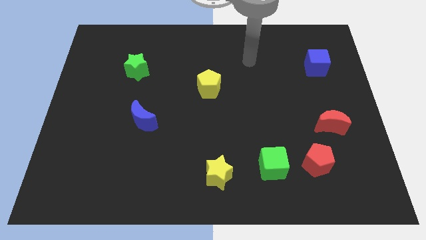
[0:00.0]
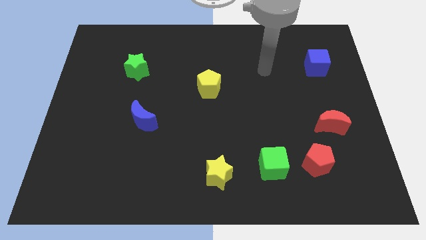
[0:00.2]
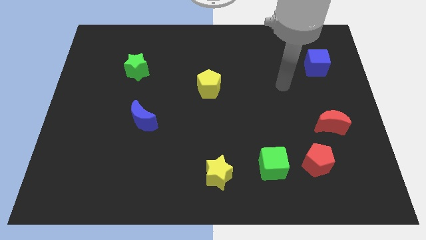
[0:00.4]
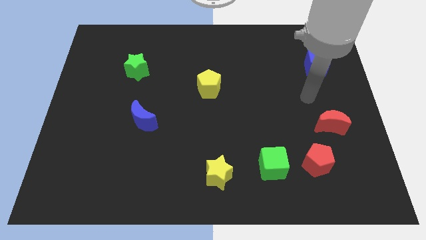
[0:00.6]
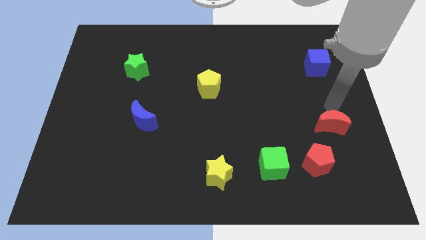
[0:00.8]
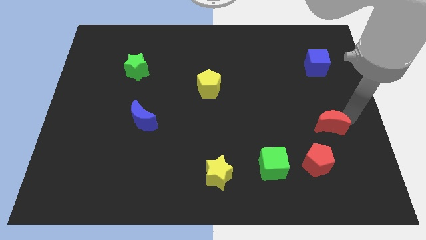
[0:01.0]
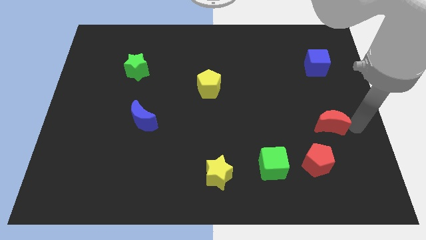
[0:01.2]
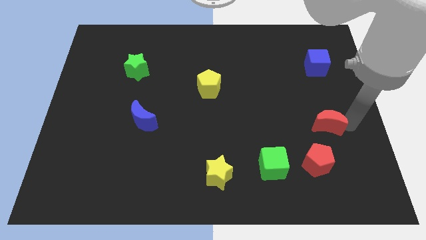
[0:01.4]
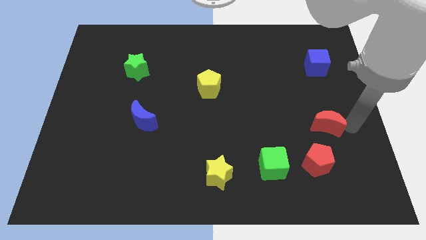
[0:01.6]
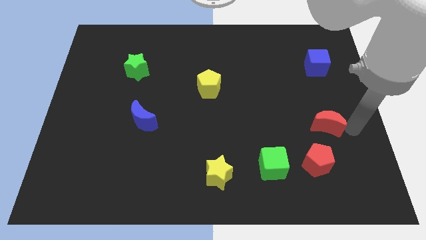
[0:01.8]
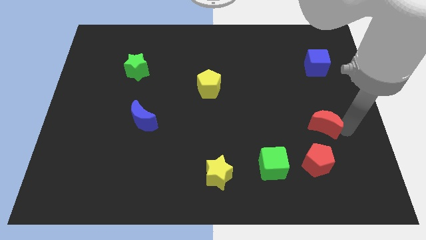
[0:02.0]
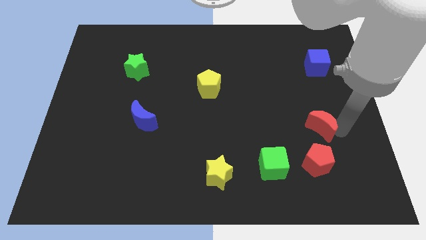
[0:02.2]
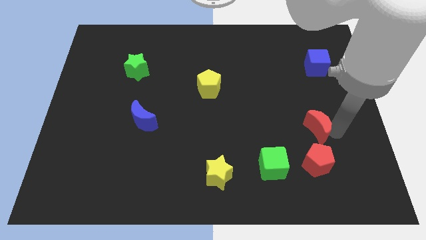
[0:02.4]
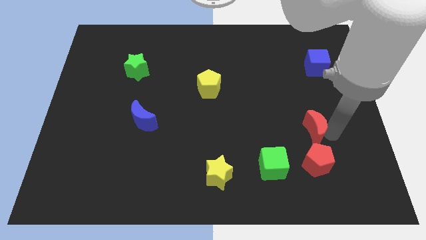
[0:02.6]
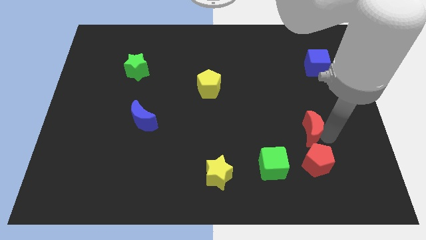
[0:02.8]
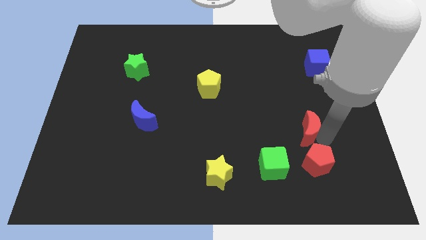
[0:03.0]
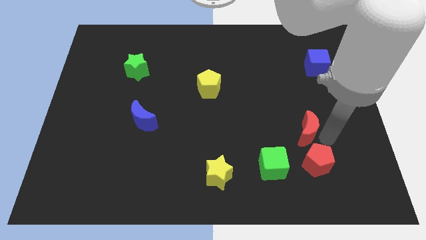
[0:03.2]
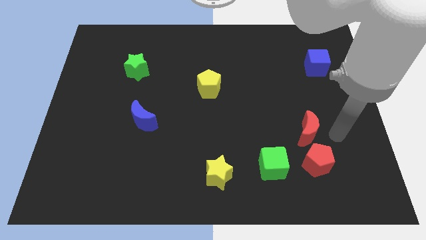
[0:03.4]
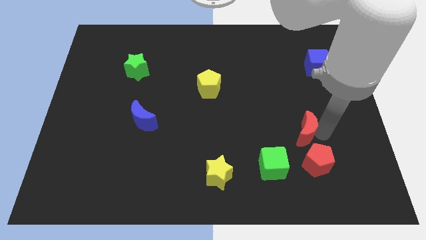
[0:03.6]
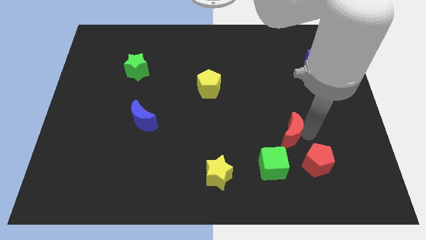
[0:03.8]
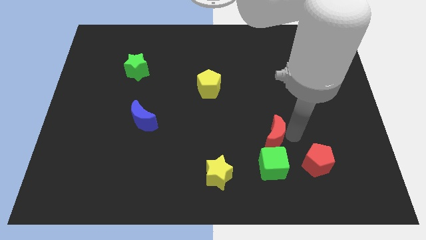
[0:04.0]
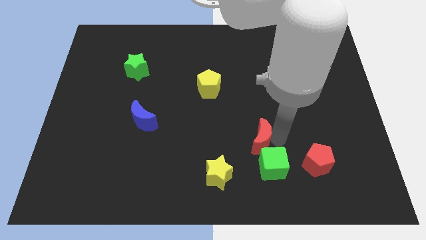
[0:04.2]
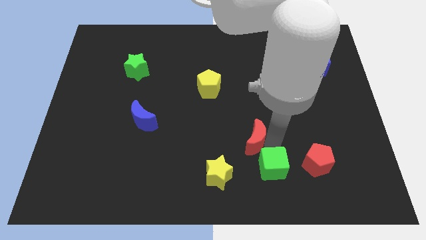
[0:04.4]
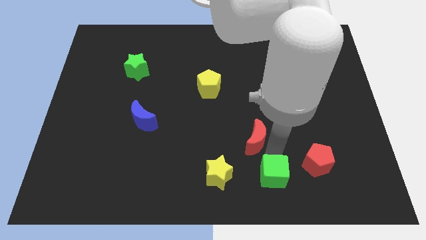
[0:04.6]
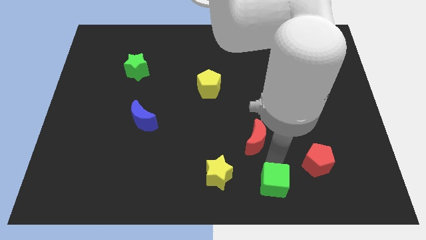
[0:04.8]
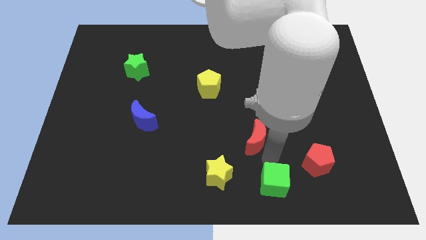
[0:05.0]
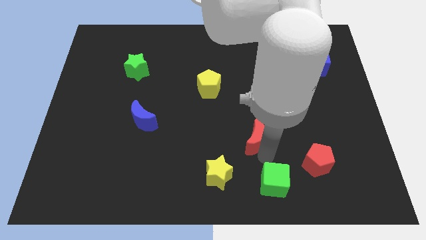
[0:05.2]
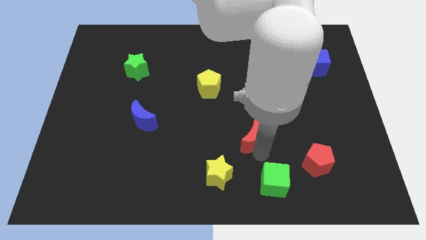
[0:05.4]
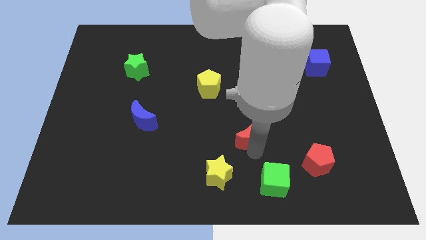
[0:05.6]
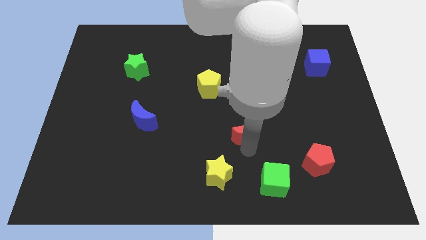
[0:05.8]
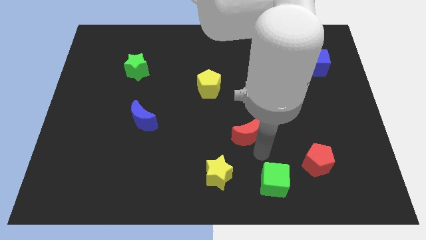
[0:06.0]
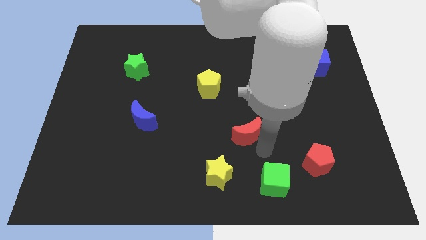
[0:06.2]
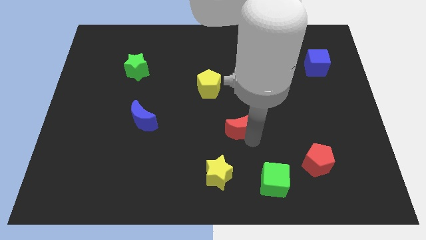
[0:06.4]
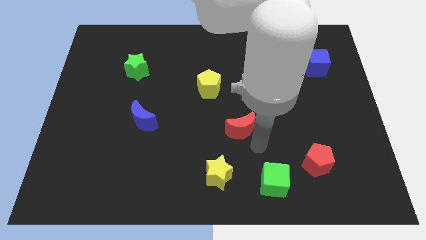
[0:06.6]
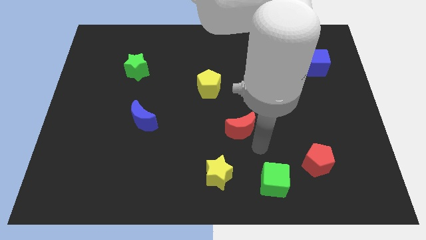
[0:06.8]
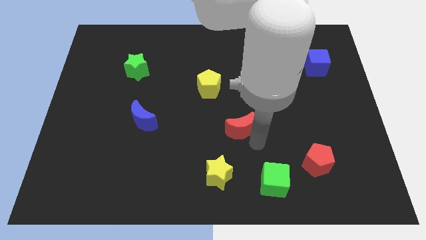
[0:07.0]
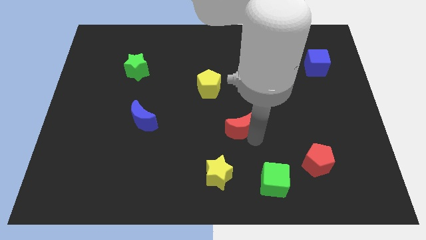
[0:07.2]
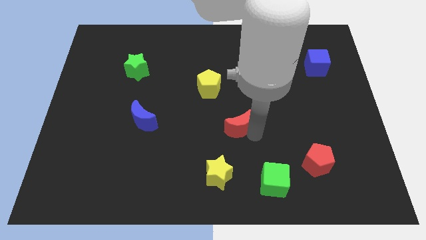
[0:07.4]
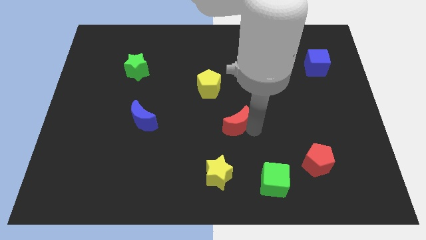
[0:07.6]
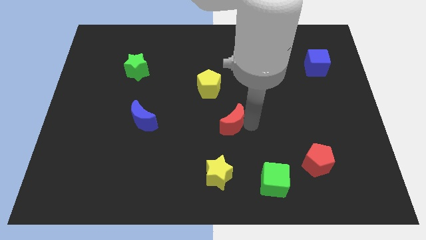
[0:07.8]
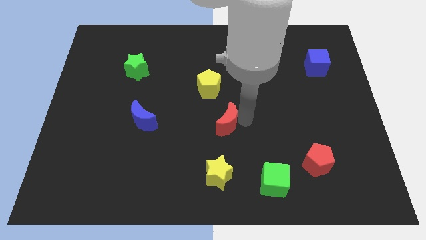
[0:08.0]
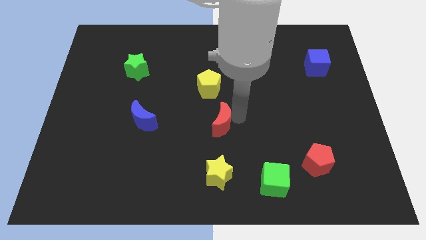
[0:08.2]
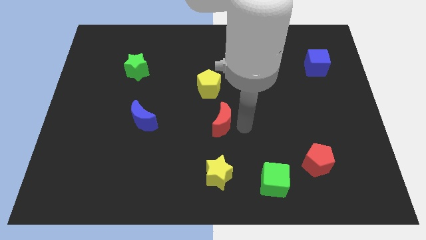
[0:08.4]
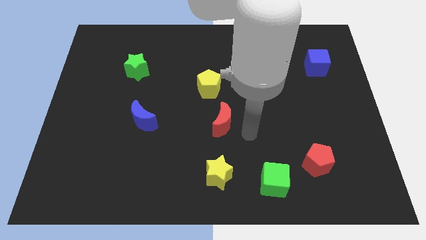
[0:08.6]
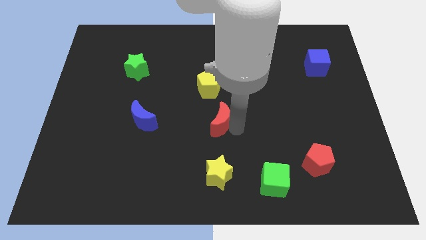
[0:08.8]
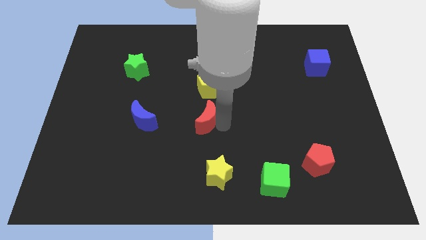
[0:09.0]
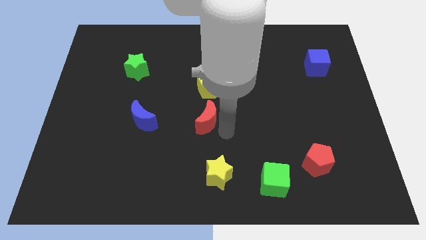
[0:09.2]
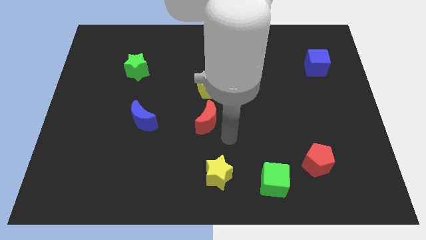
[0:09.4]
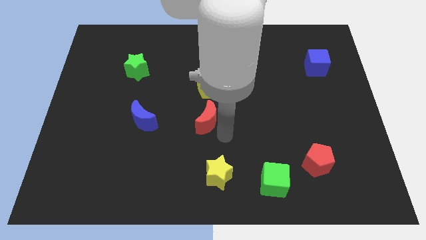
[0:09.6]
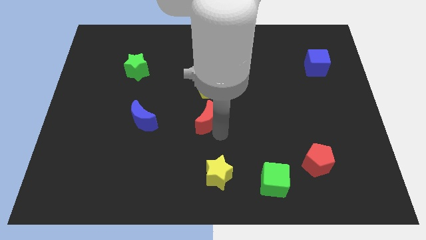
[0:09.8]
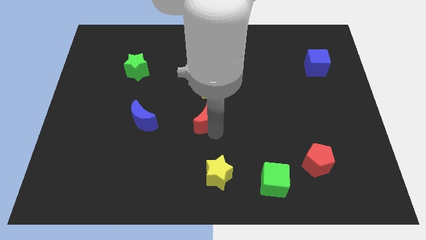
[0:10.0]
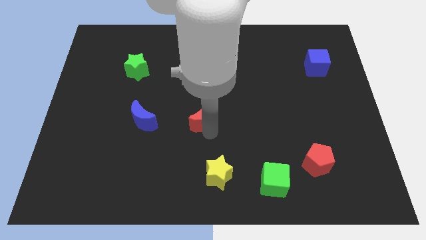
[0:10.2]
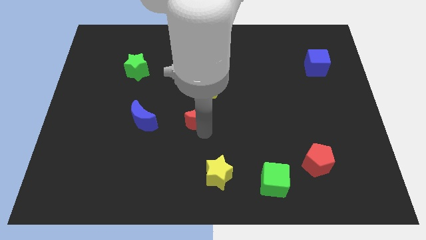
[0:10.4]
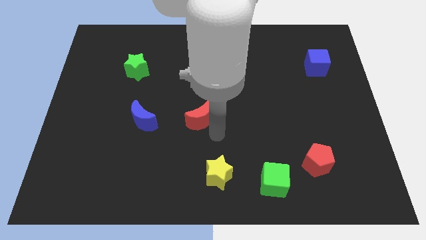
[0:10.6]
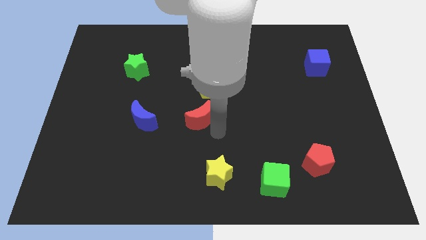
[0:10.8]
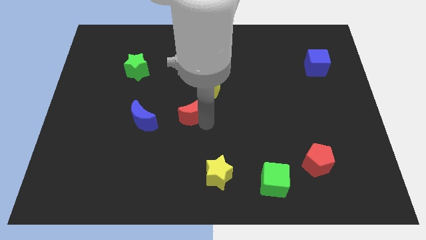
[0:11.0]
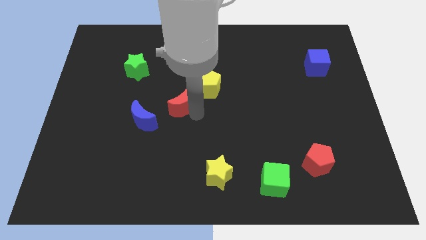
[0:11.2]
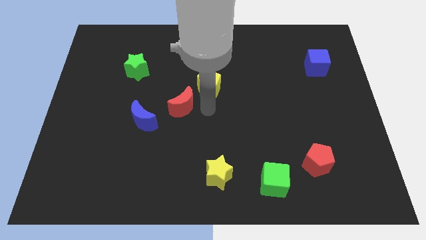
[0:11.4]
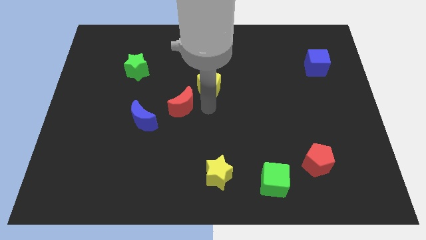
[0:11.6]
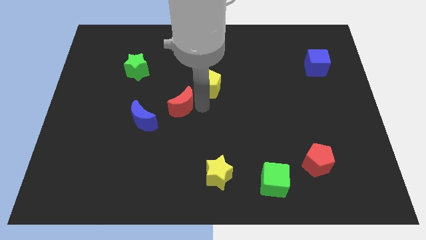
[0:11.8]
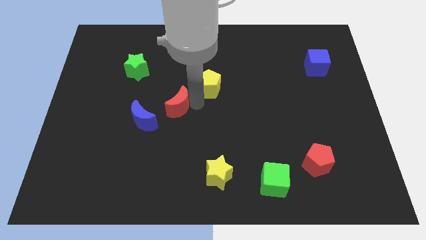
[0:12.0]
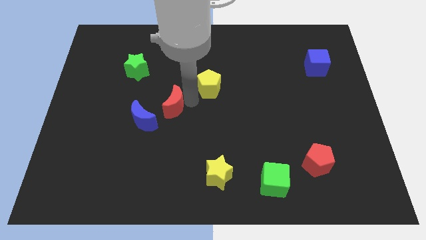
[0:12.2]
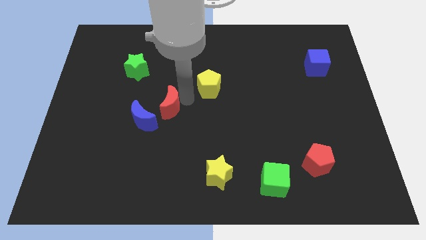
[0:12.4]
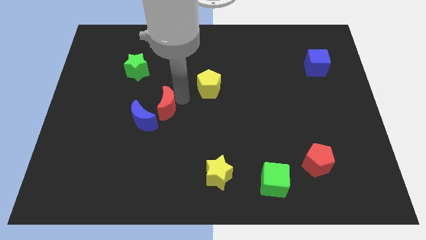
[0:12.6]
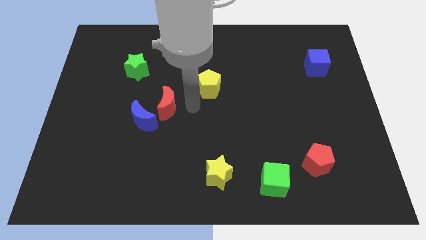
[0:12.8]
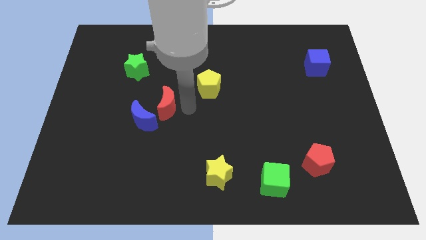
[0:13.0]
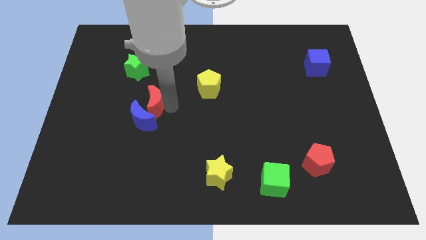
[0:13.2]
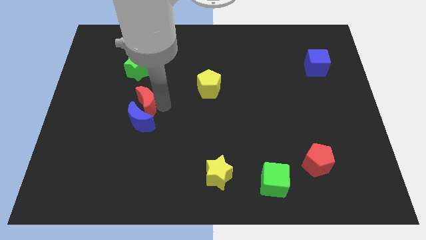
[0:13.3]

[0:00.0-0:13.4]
move the red moon to the bottom of the green star

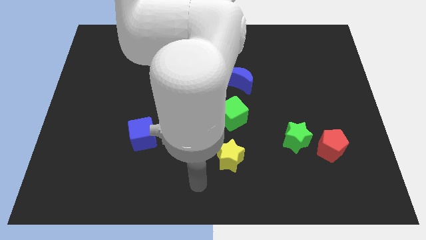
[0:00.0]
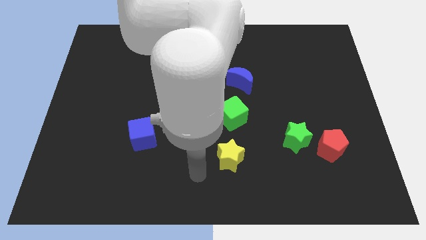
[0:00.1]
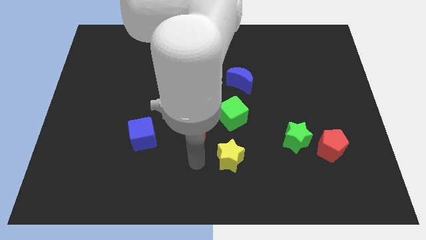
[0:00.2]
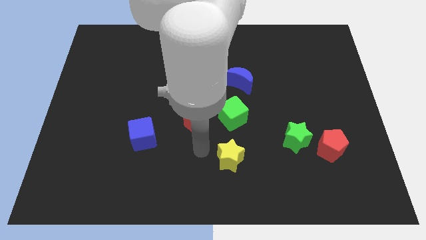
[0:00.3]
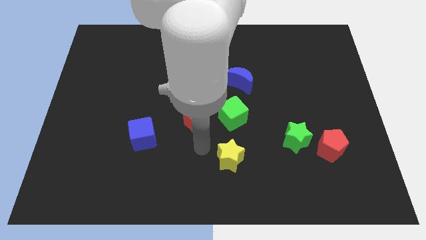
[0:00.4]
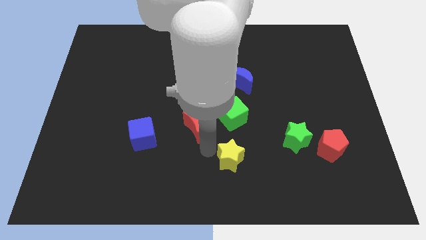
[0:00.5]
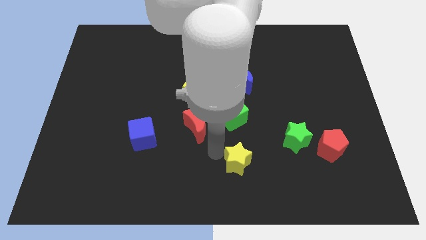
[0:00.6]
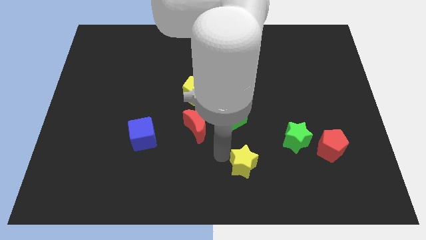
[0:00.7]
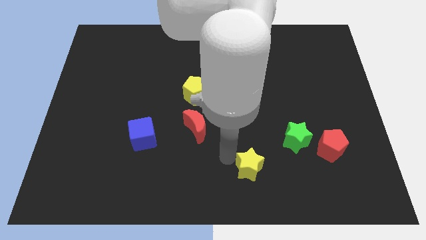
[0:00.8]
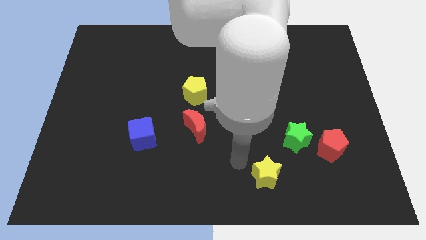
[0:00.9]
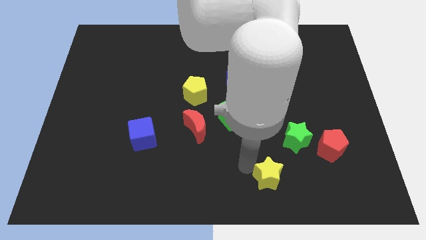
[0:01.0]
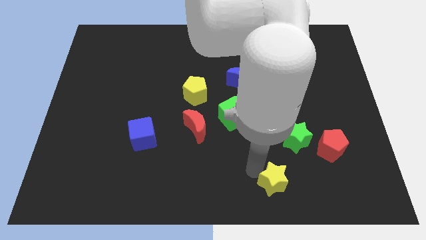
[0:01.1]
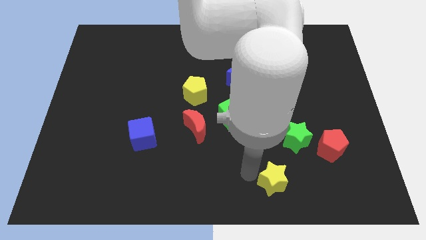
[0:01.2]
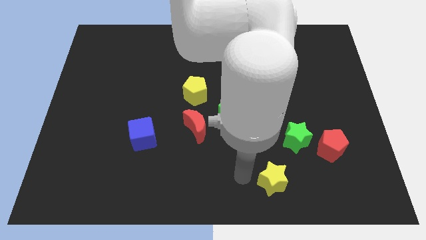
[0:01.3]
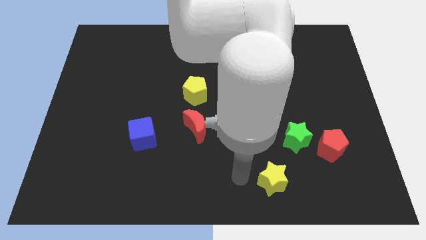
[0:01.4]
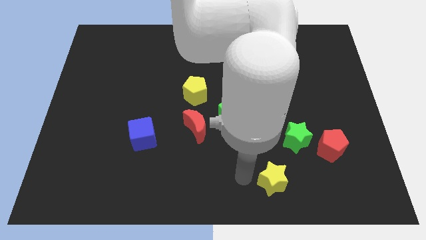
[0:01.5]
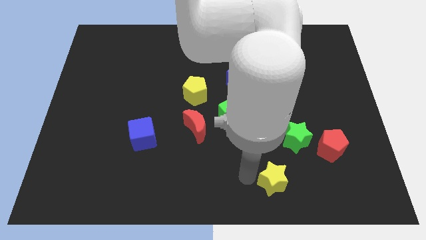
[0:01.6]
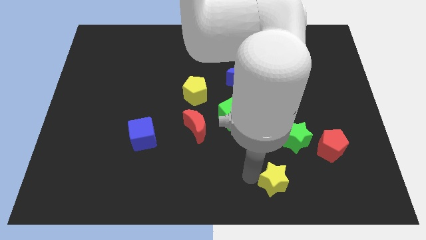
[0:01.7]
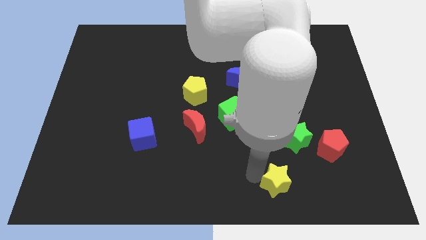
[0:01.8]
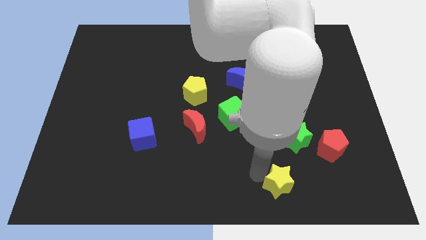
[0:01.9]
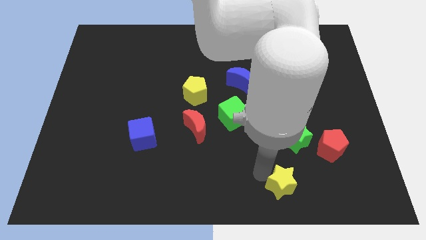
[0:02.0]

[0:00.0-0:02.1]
put the yellow star to the bottom side of the green star
